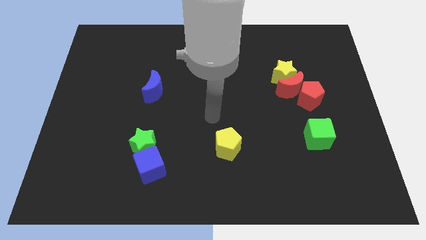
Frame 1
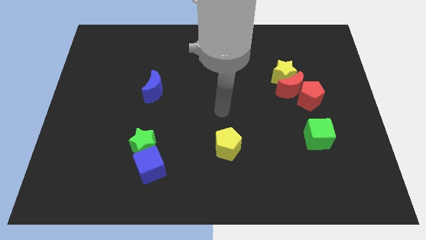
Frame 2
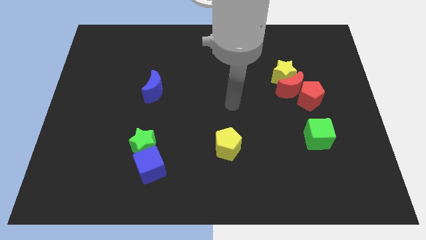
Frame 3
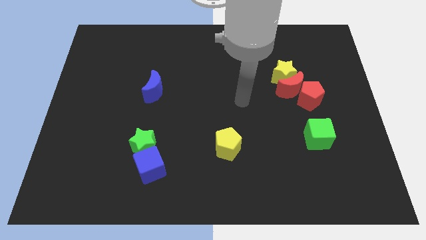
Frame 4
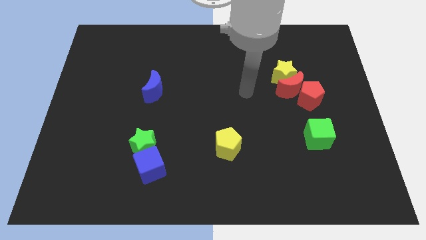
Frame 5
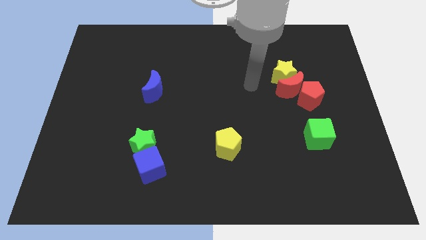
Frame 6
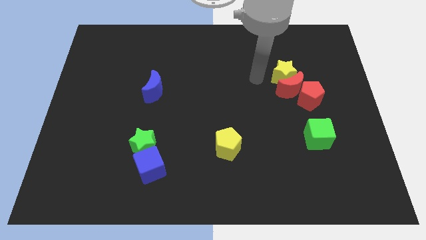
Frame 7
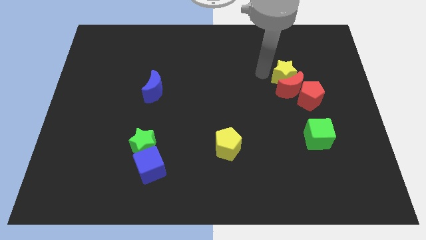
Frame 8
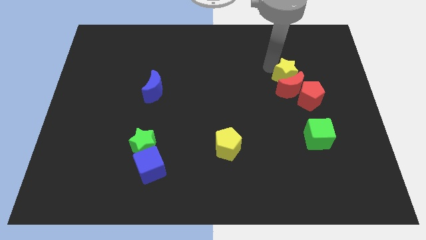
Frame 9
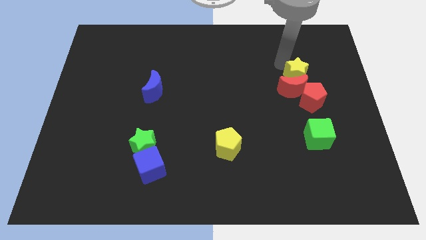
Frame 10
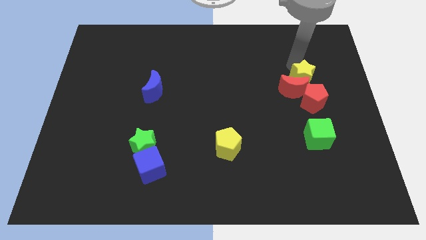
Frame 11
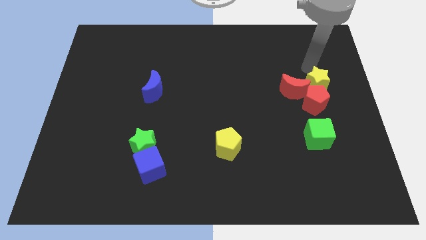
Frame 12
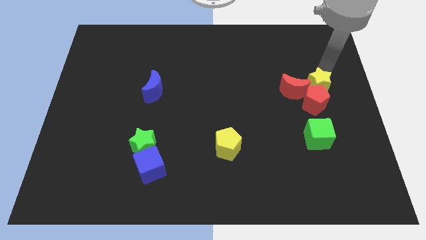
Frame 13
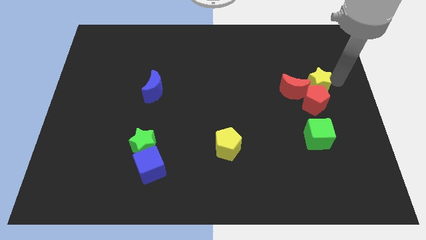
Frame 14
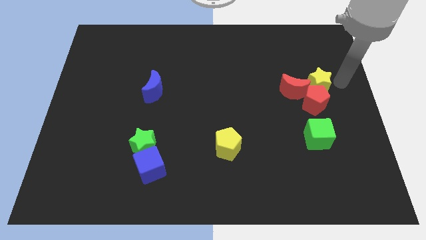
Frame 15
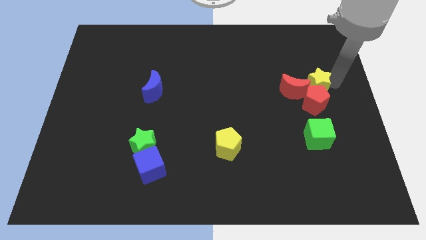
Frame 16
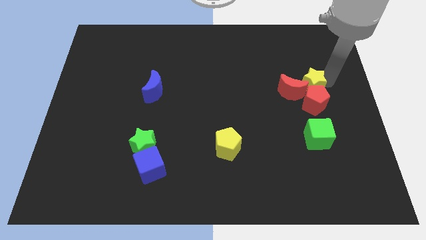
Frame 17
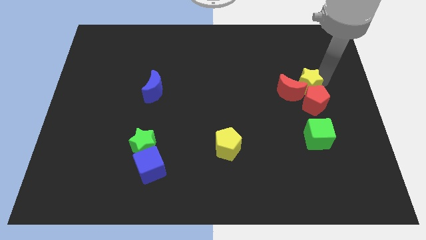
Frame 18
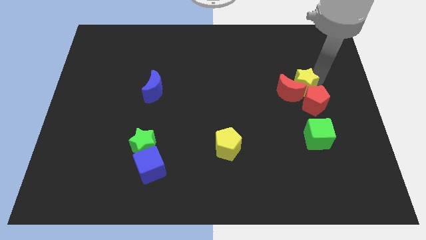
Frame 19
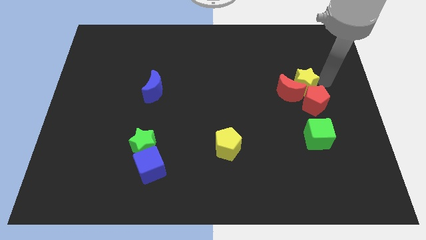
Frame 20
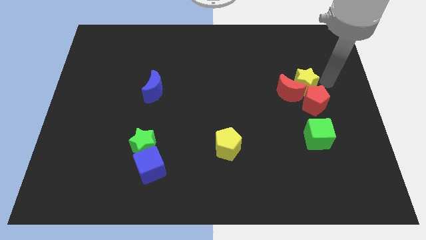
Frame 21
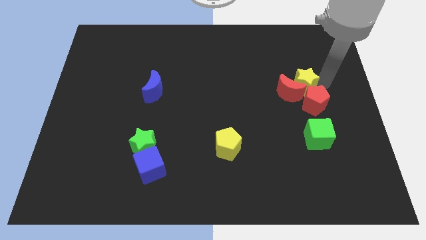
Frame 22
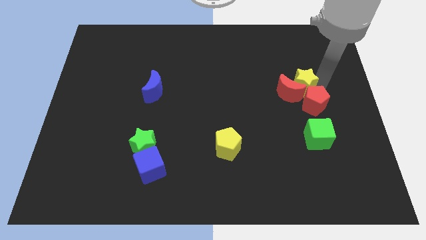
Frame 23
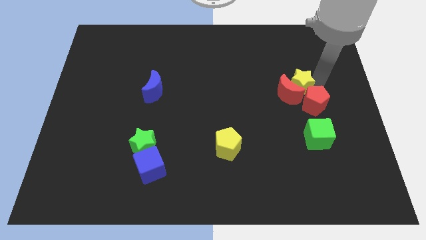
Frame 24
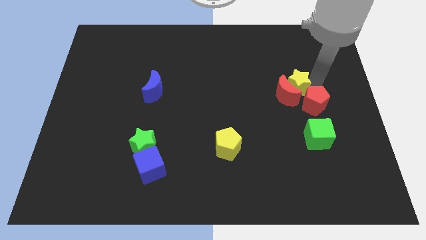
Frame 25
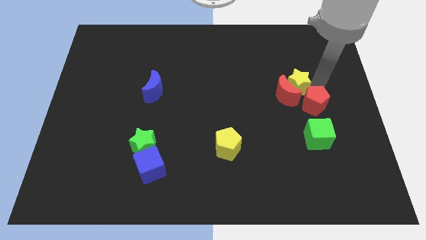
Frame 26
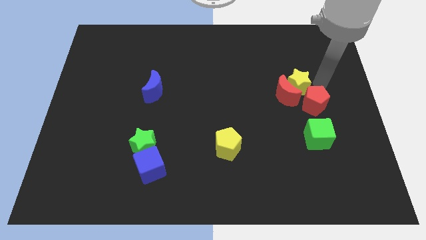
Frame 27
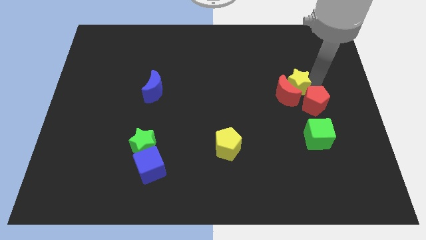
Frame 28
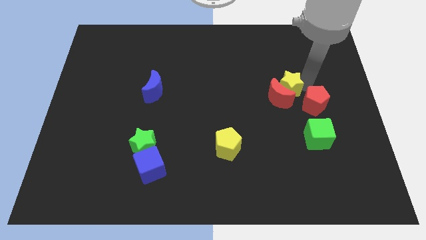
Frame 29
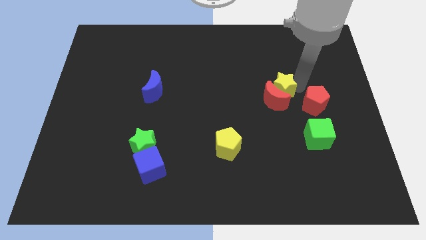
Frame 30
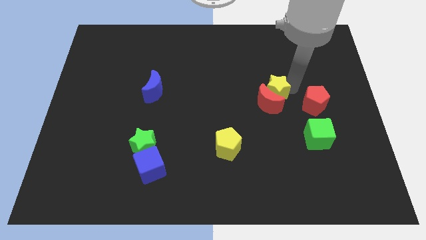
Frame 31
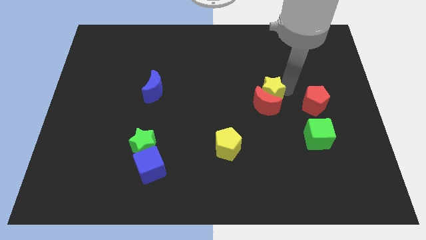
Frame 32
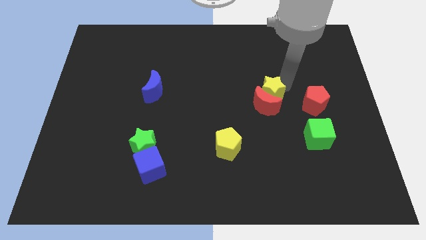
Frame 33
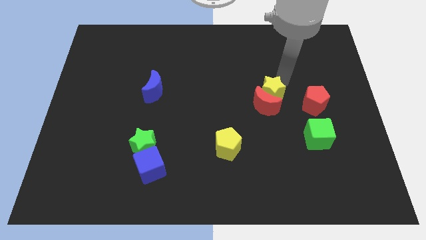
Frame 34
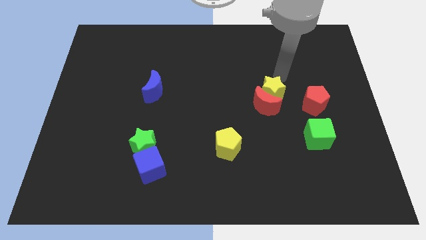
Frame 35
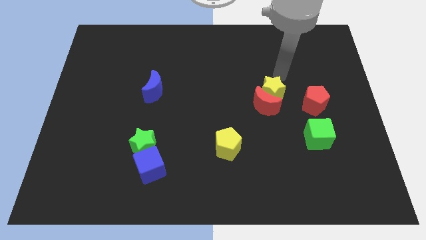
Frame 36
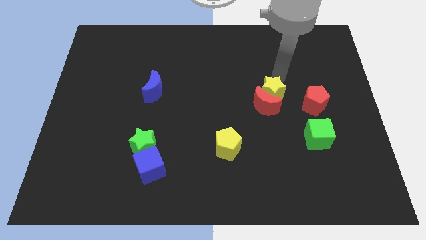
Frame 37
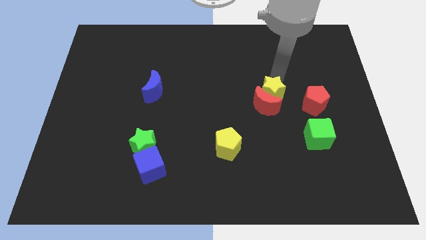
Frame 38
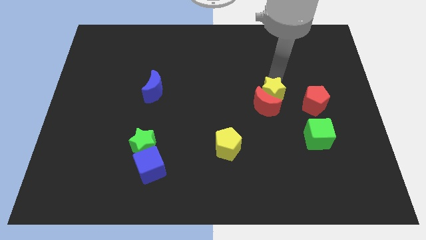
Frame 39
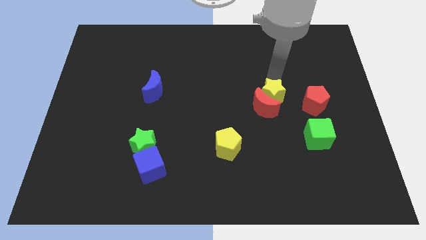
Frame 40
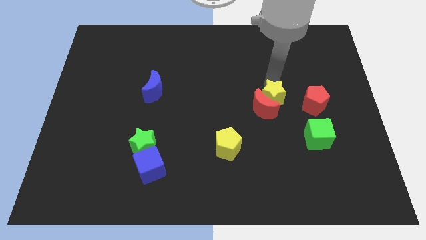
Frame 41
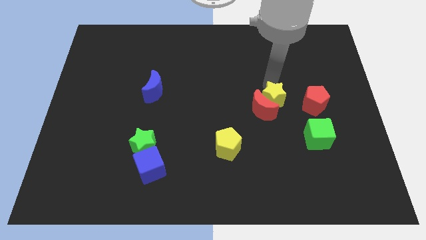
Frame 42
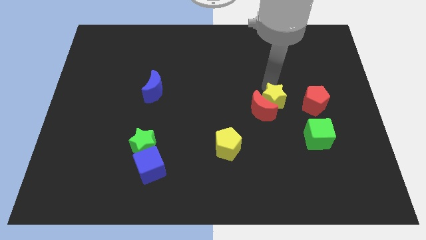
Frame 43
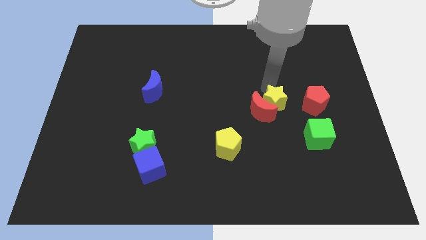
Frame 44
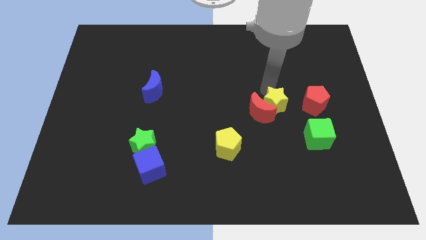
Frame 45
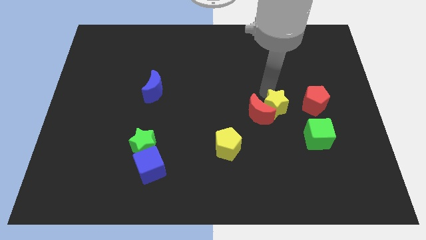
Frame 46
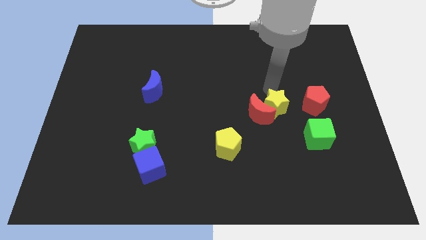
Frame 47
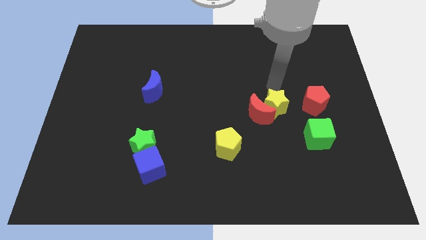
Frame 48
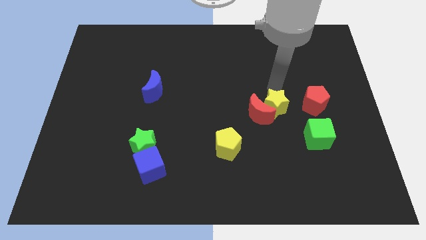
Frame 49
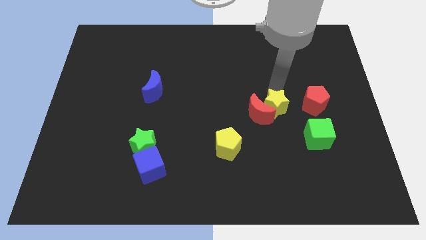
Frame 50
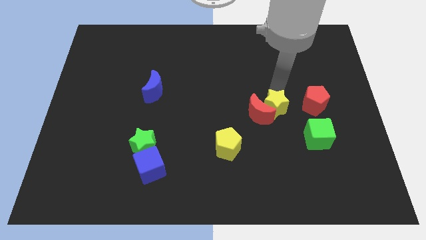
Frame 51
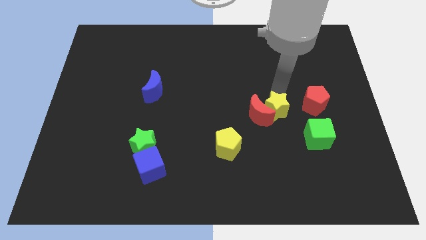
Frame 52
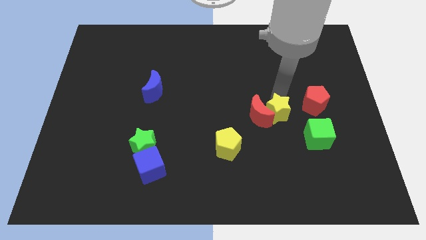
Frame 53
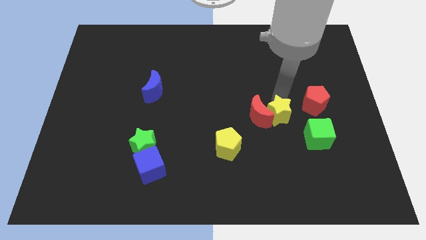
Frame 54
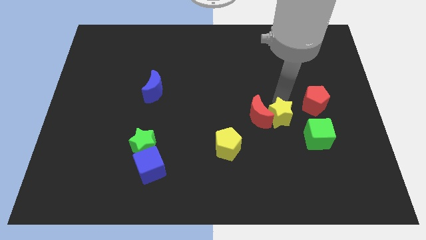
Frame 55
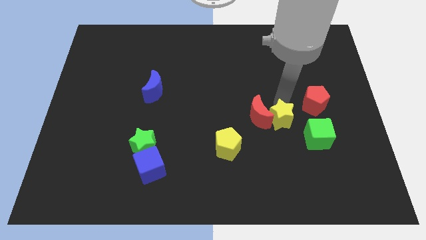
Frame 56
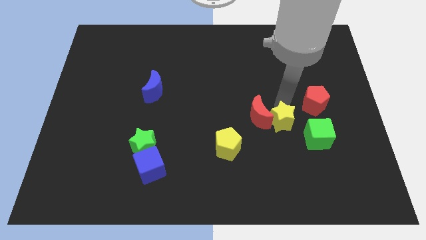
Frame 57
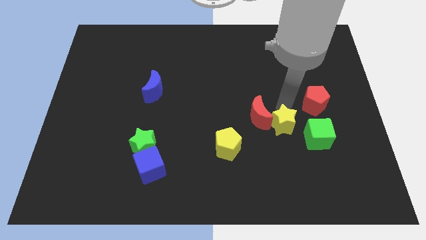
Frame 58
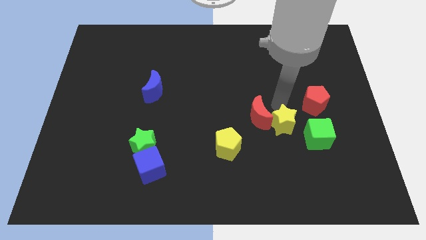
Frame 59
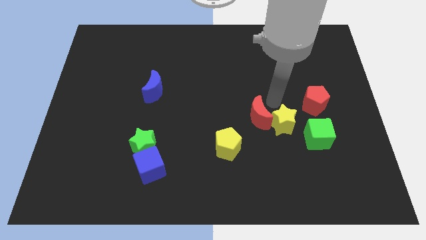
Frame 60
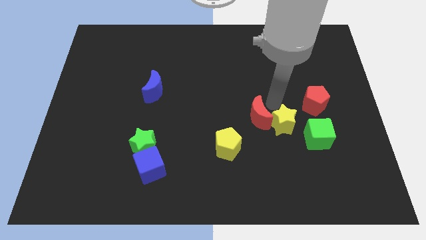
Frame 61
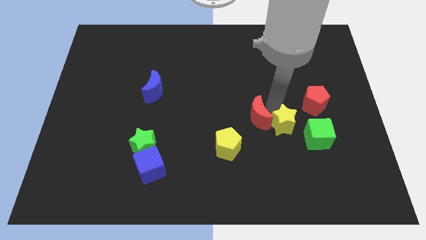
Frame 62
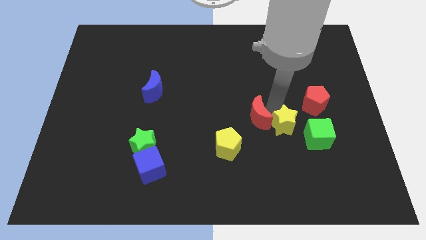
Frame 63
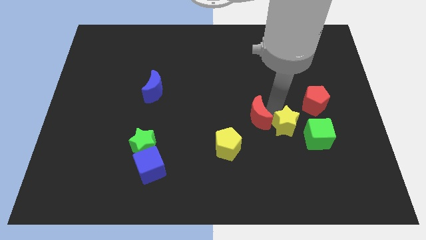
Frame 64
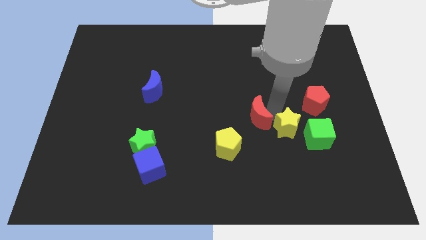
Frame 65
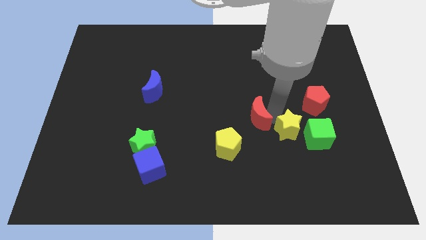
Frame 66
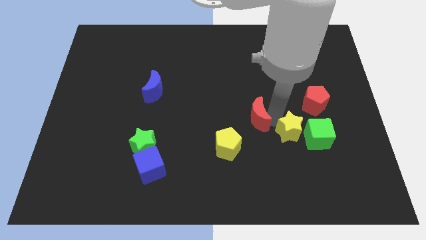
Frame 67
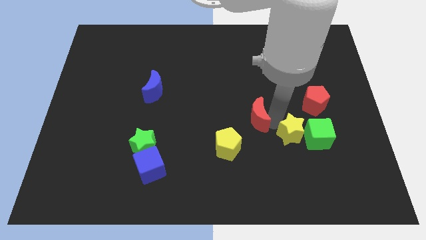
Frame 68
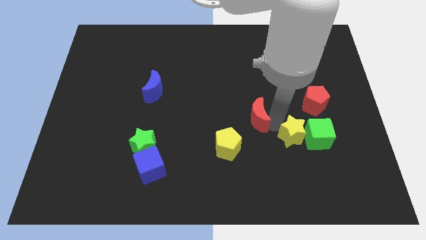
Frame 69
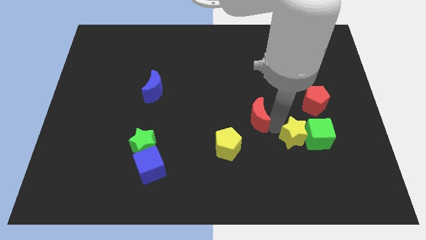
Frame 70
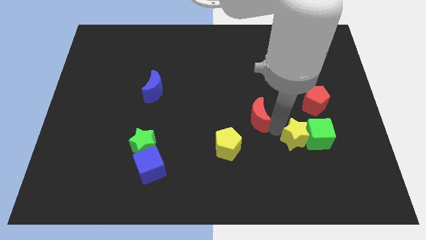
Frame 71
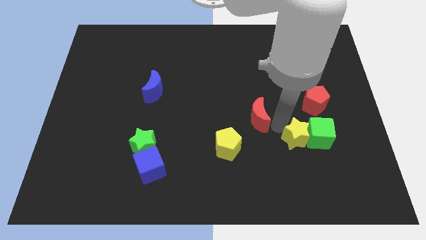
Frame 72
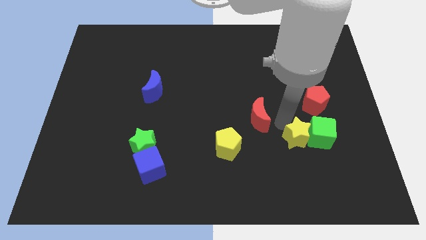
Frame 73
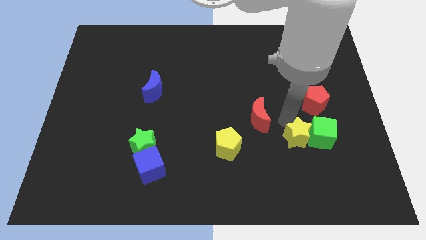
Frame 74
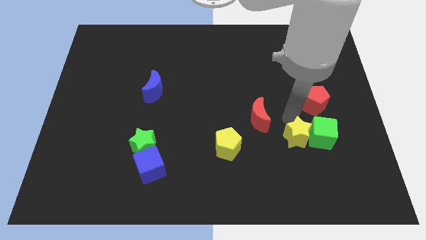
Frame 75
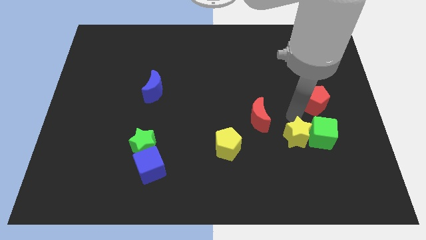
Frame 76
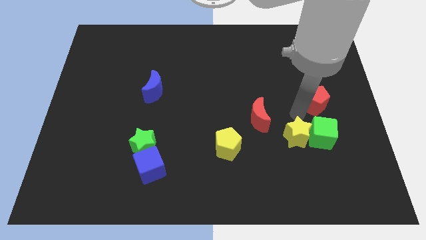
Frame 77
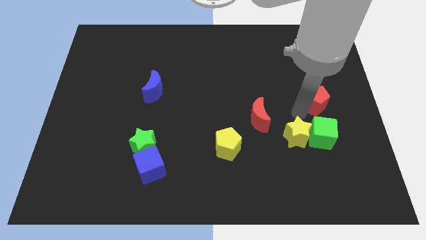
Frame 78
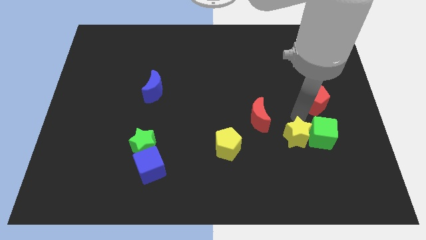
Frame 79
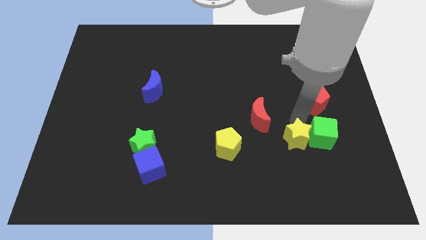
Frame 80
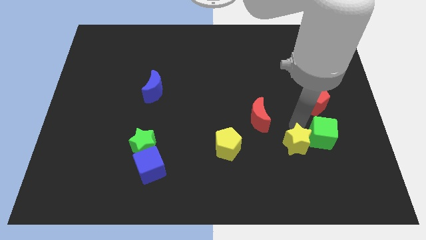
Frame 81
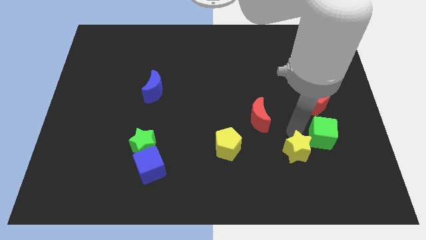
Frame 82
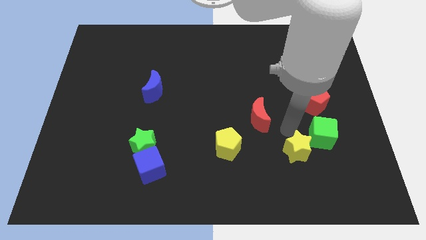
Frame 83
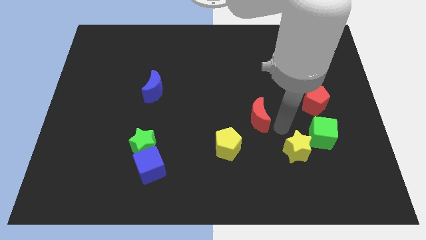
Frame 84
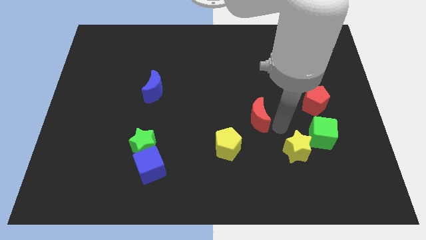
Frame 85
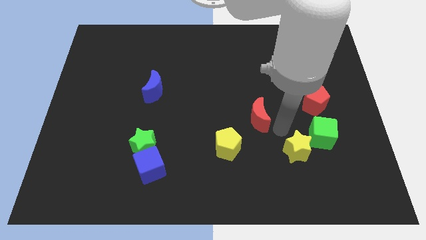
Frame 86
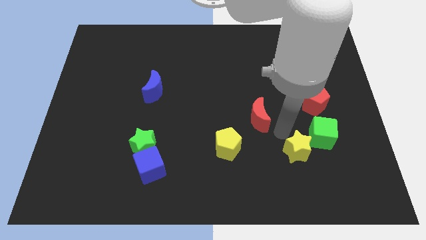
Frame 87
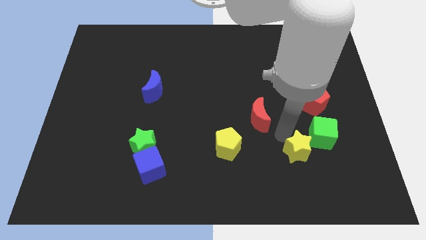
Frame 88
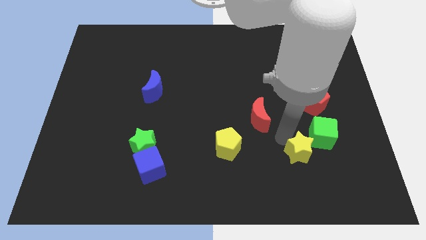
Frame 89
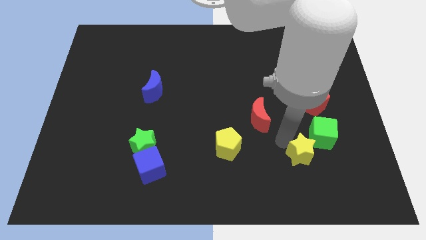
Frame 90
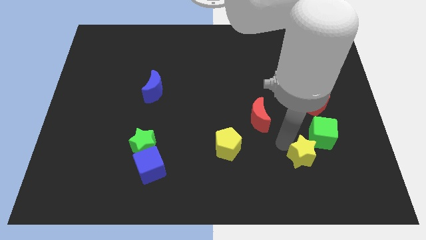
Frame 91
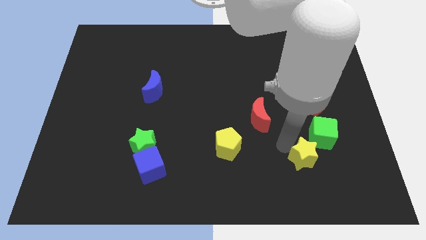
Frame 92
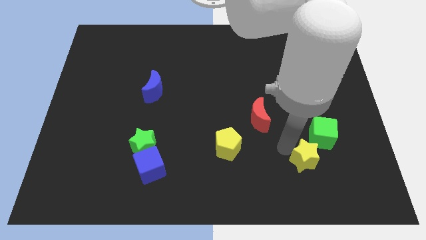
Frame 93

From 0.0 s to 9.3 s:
put the yellow star below the green cube
